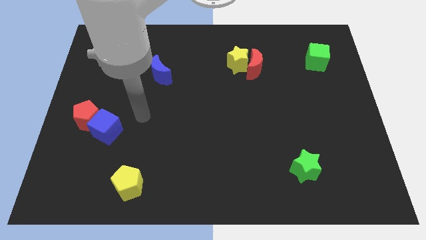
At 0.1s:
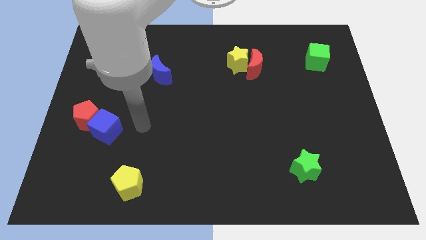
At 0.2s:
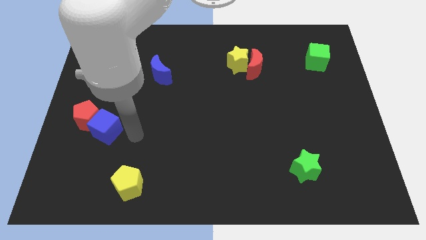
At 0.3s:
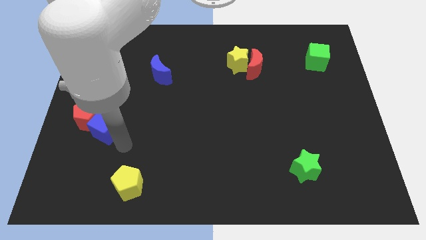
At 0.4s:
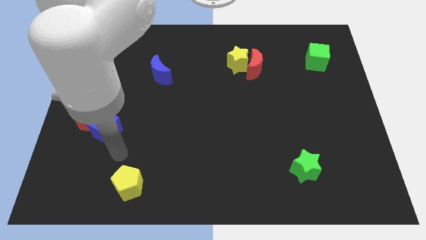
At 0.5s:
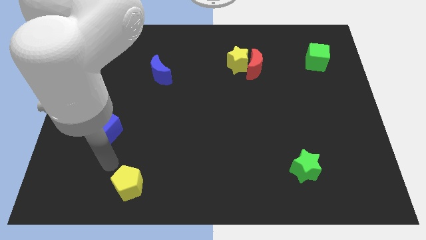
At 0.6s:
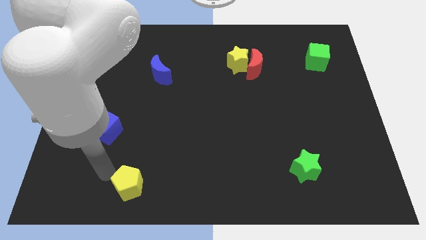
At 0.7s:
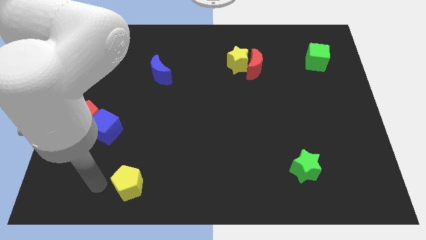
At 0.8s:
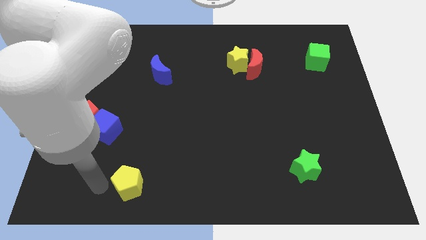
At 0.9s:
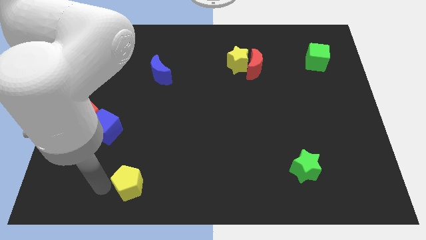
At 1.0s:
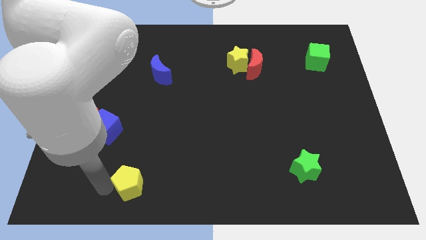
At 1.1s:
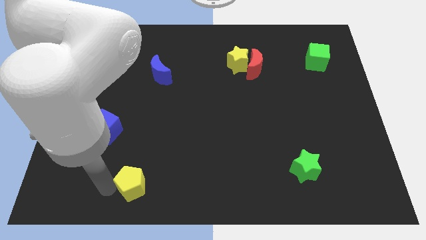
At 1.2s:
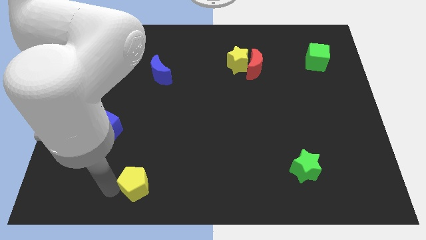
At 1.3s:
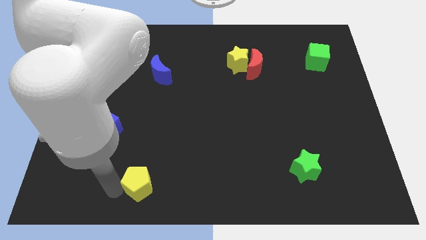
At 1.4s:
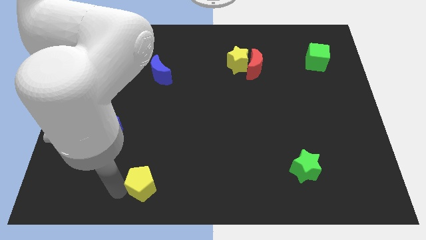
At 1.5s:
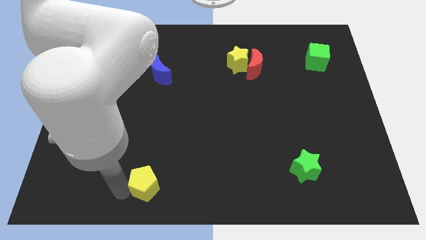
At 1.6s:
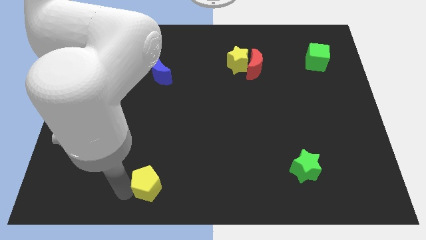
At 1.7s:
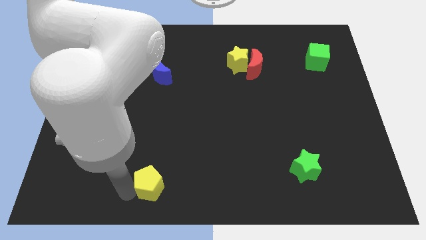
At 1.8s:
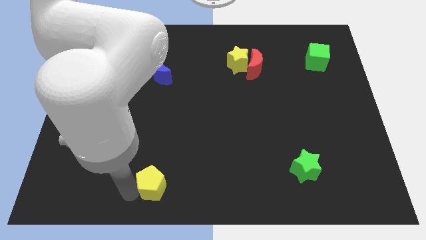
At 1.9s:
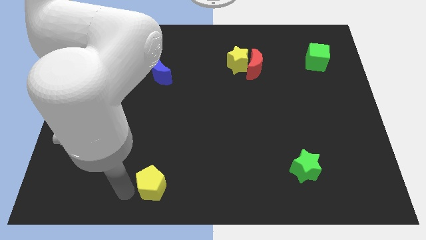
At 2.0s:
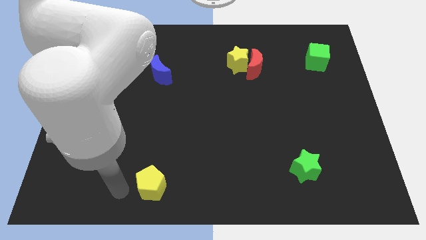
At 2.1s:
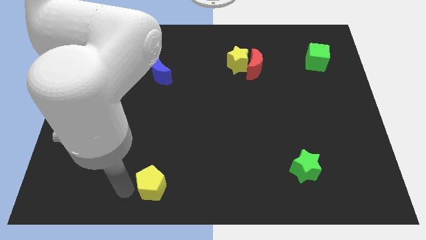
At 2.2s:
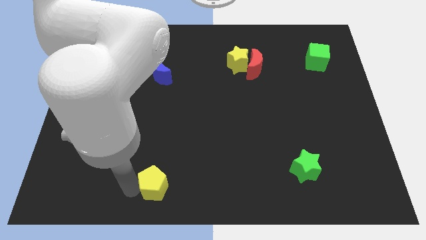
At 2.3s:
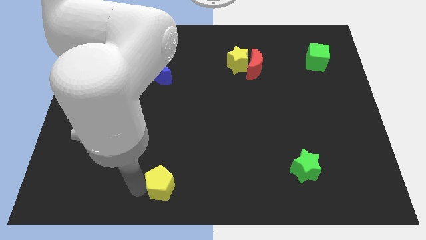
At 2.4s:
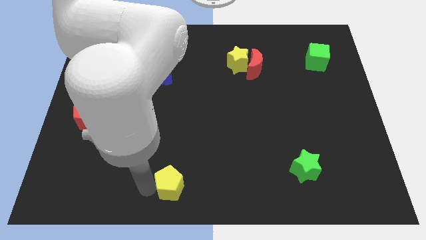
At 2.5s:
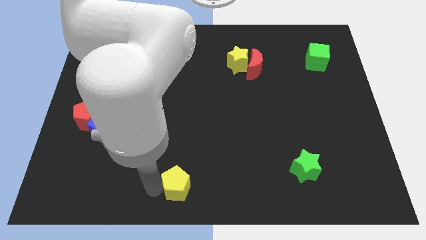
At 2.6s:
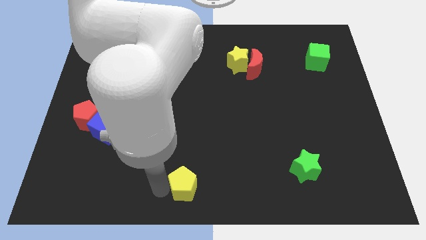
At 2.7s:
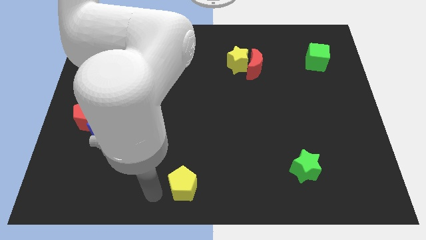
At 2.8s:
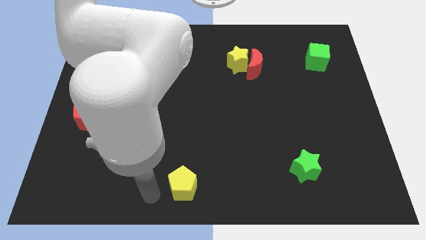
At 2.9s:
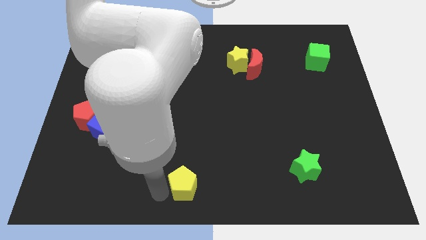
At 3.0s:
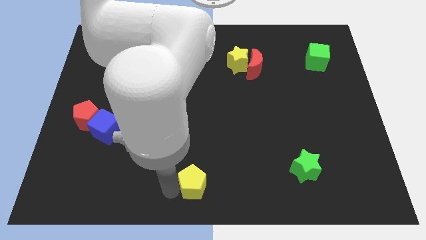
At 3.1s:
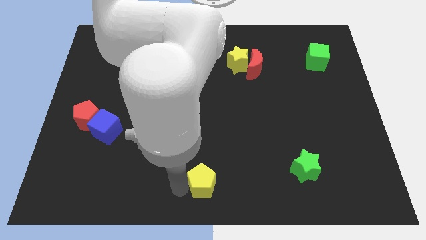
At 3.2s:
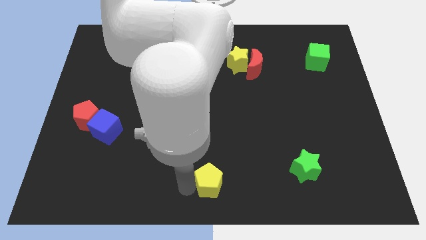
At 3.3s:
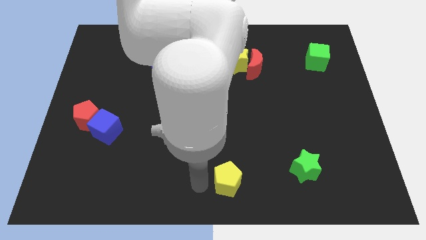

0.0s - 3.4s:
move the yellow pentagon right

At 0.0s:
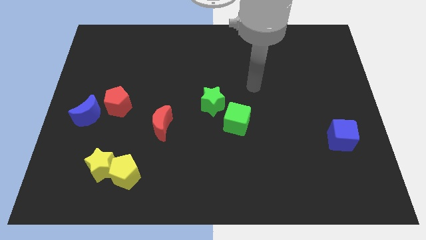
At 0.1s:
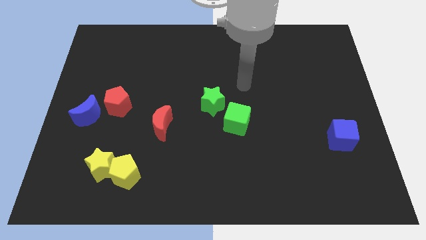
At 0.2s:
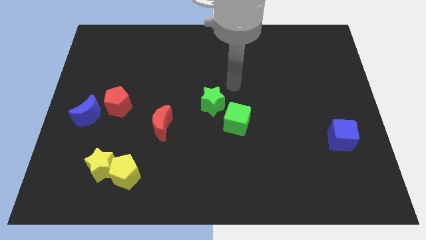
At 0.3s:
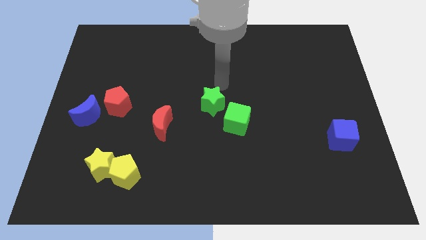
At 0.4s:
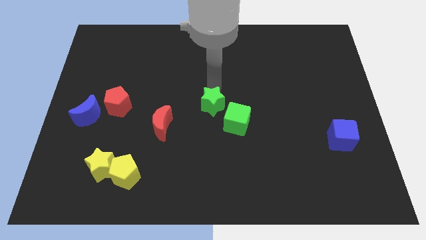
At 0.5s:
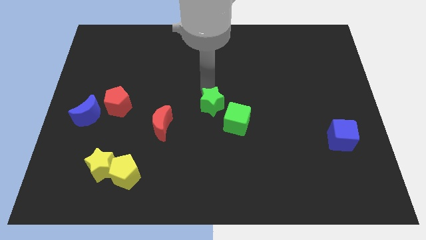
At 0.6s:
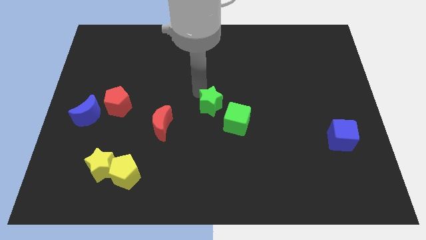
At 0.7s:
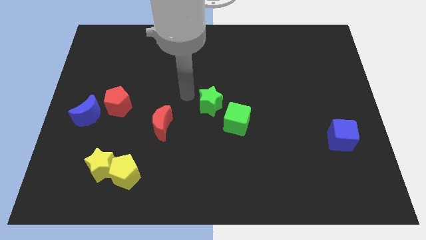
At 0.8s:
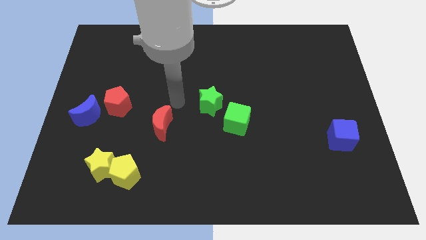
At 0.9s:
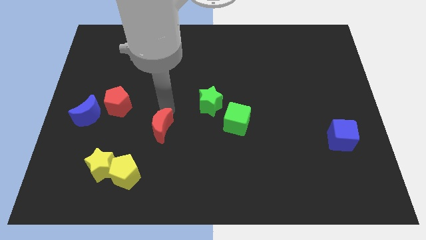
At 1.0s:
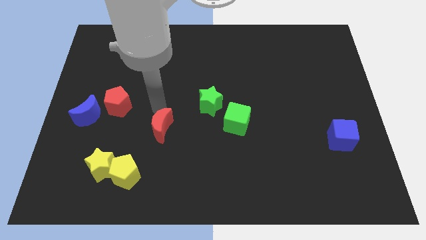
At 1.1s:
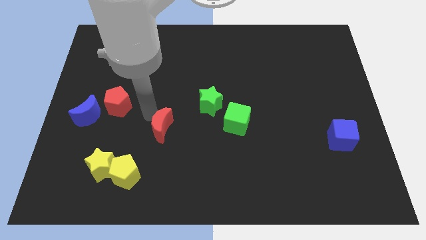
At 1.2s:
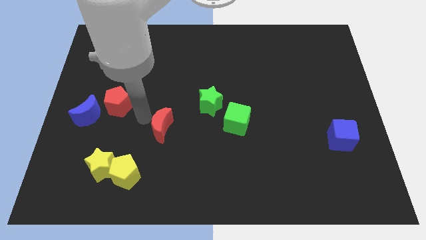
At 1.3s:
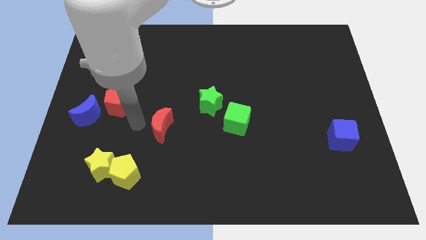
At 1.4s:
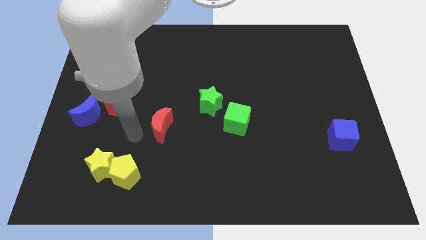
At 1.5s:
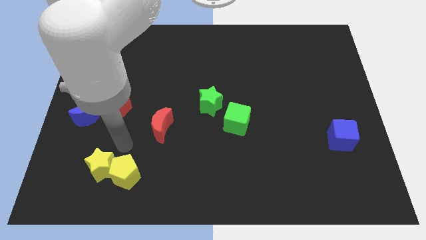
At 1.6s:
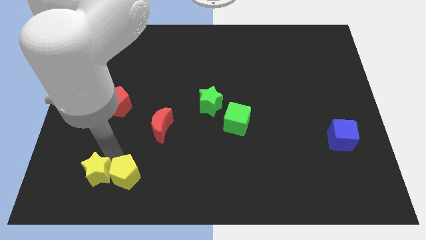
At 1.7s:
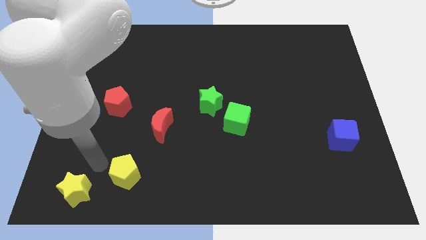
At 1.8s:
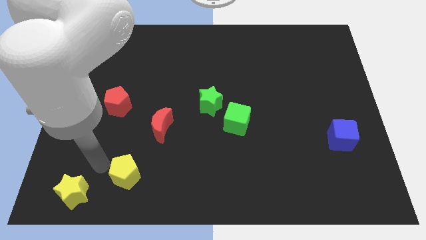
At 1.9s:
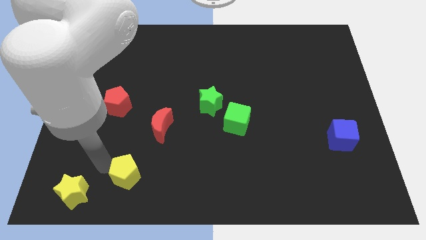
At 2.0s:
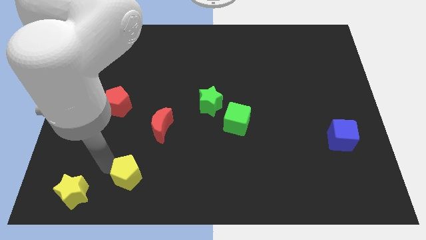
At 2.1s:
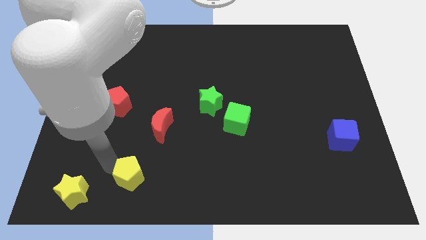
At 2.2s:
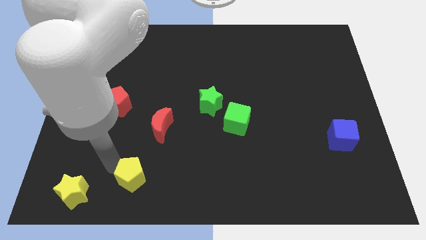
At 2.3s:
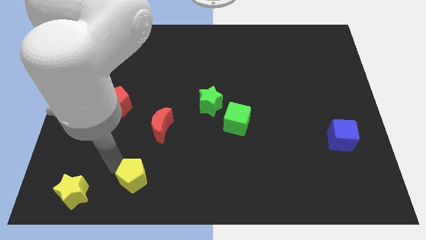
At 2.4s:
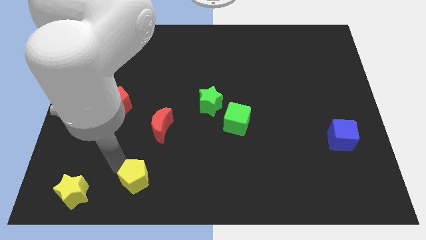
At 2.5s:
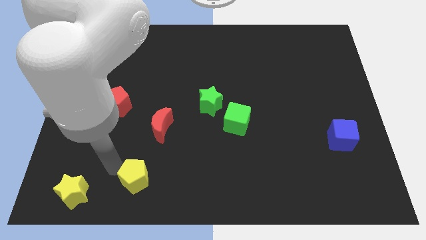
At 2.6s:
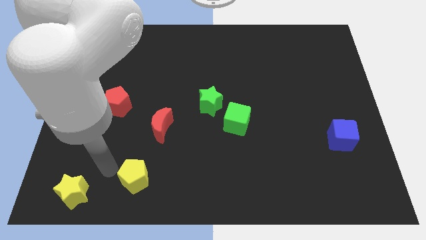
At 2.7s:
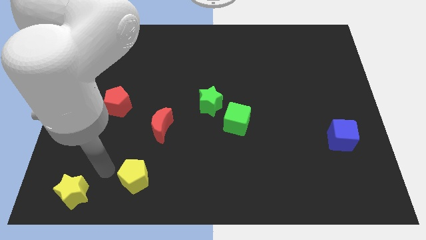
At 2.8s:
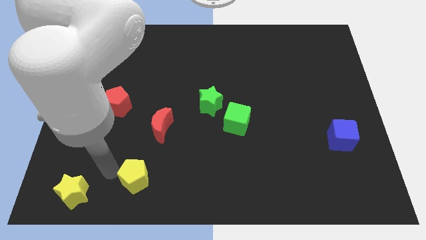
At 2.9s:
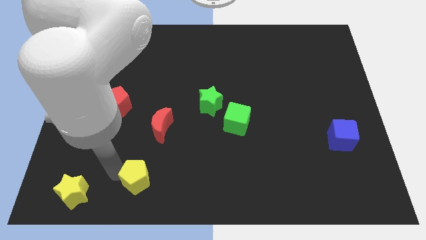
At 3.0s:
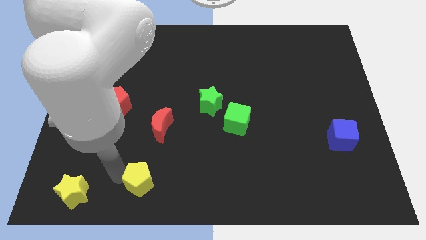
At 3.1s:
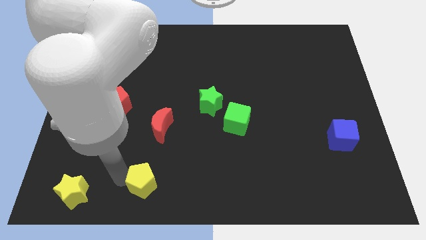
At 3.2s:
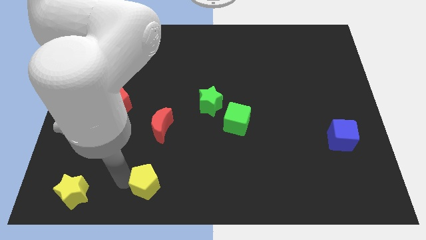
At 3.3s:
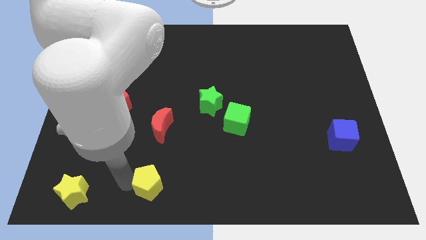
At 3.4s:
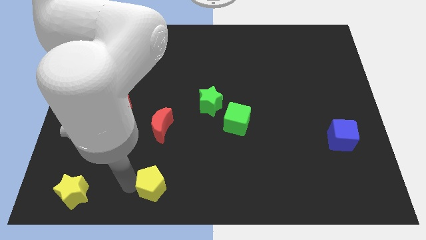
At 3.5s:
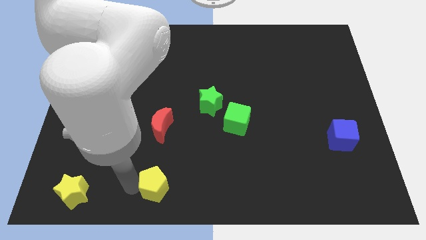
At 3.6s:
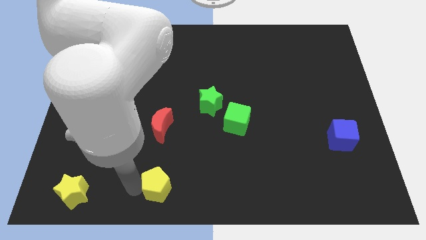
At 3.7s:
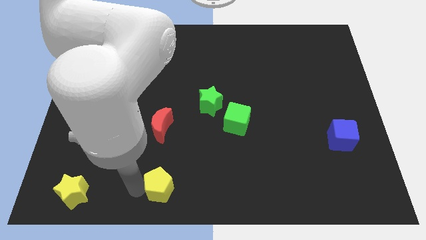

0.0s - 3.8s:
move the yellow pentagon to the right somewhat

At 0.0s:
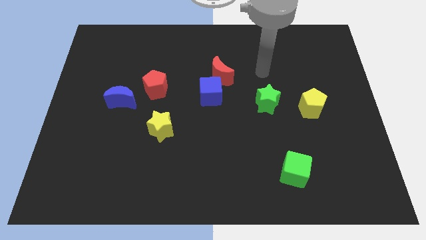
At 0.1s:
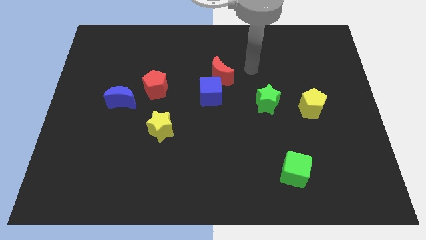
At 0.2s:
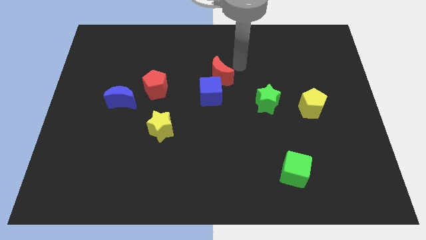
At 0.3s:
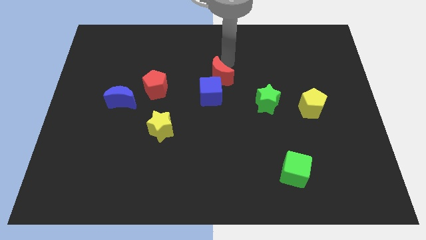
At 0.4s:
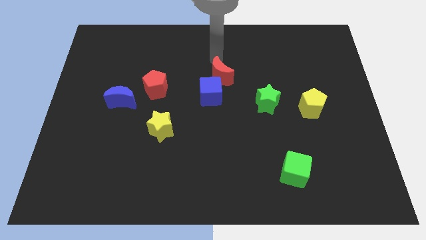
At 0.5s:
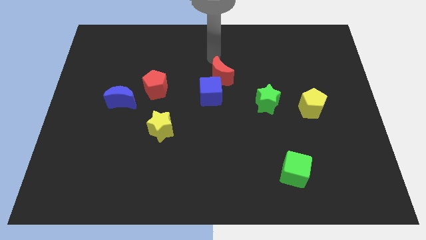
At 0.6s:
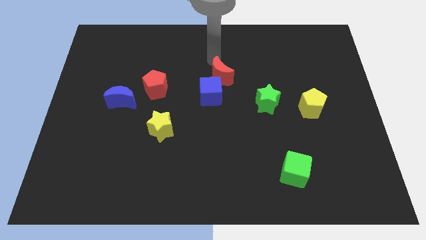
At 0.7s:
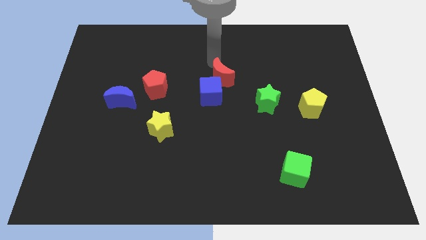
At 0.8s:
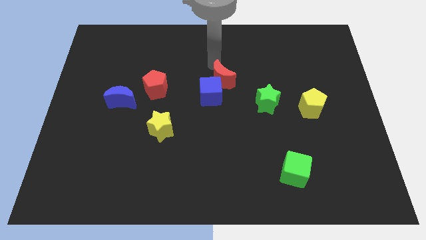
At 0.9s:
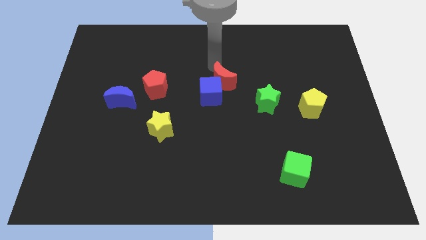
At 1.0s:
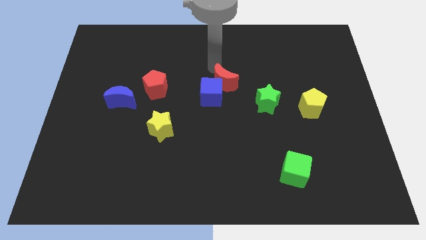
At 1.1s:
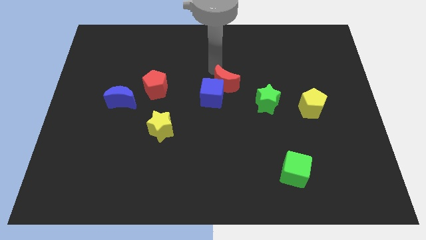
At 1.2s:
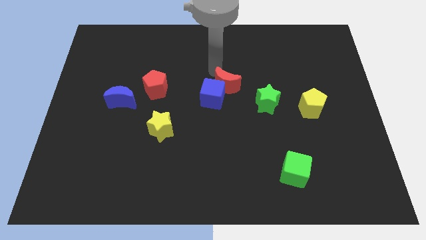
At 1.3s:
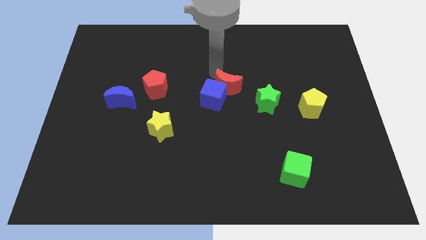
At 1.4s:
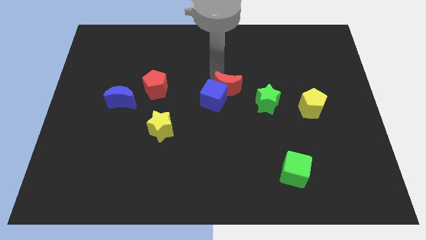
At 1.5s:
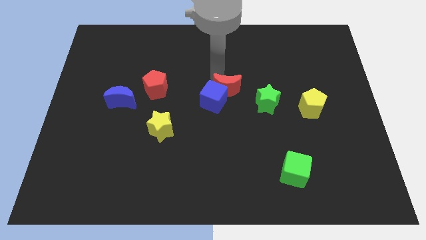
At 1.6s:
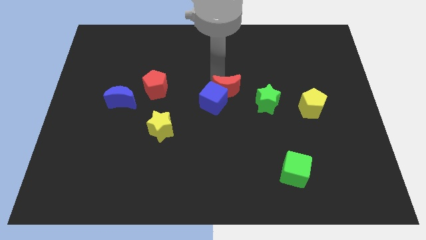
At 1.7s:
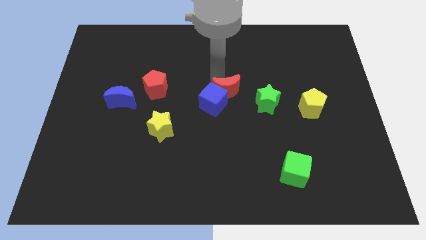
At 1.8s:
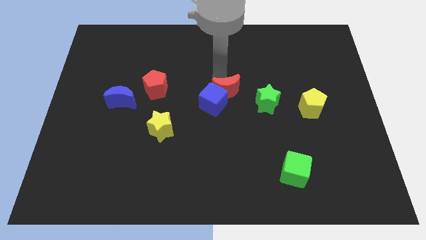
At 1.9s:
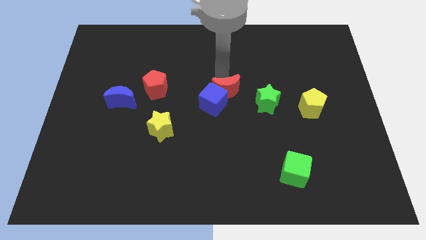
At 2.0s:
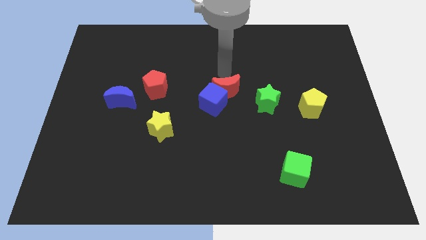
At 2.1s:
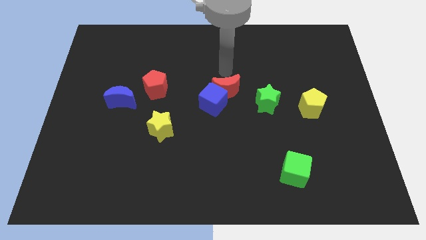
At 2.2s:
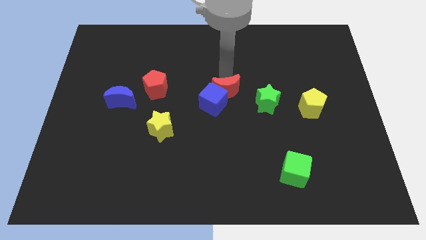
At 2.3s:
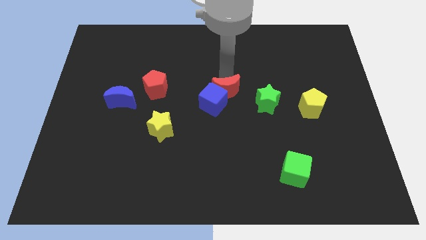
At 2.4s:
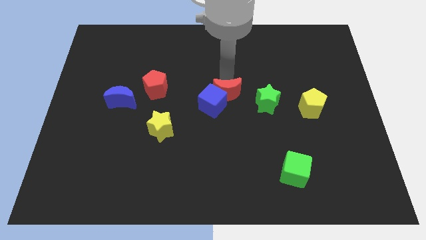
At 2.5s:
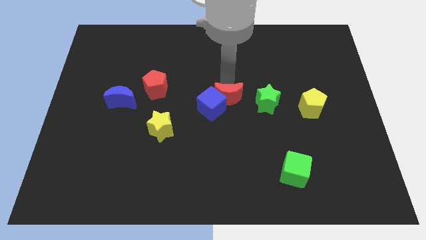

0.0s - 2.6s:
move the red moon somewhat down
